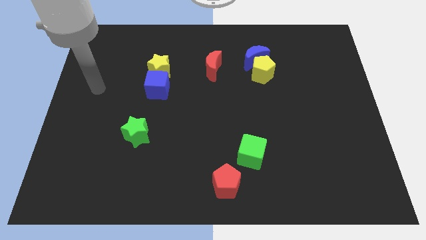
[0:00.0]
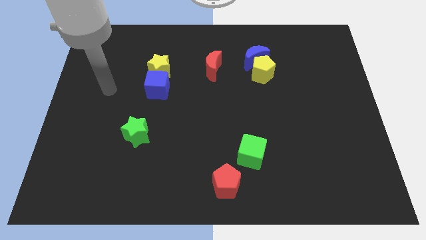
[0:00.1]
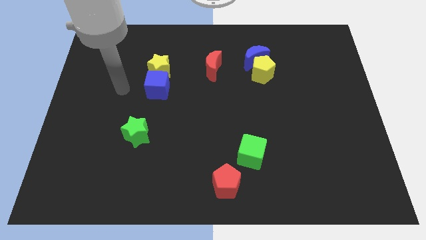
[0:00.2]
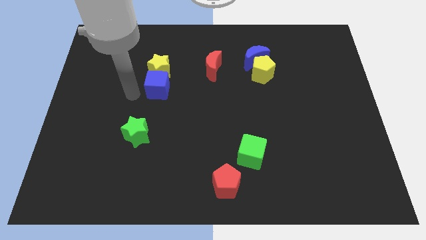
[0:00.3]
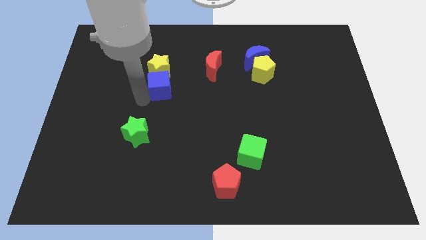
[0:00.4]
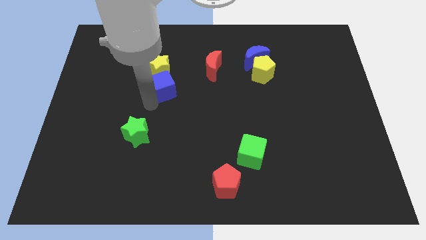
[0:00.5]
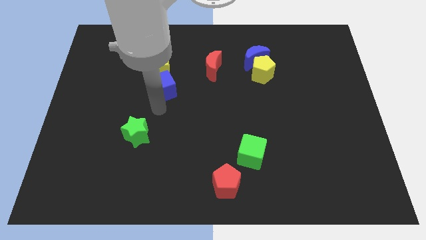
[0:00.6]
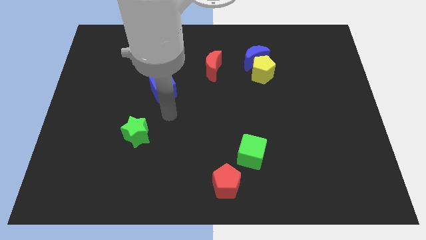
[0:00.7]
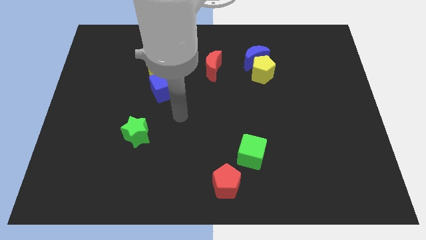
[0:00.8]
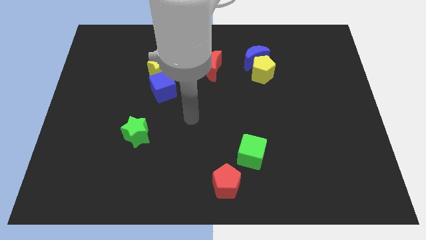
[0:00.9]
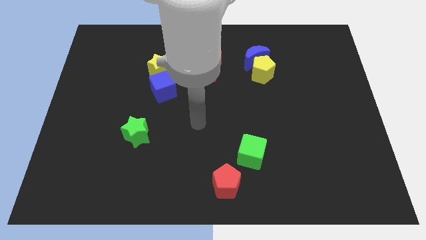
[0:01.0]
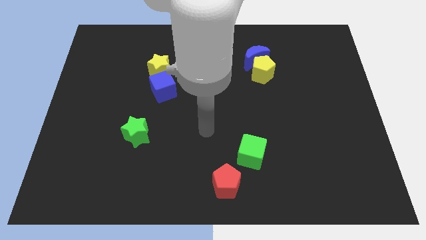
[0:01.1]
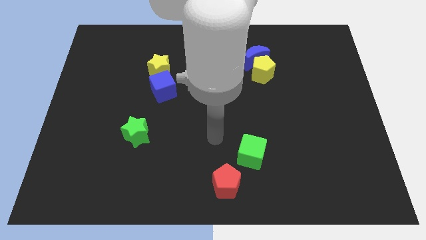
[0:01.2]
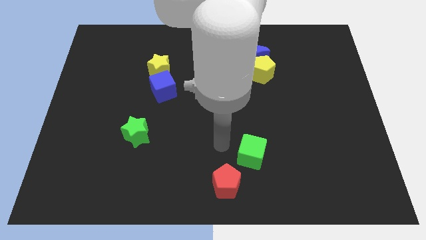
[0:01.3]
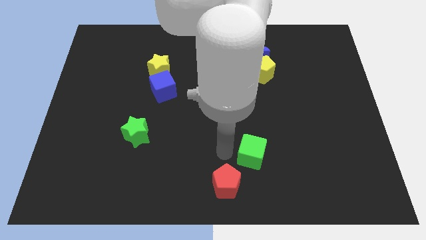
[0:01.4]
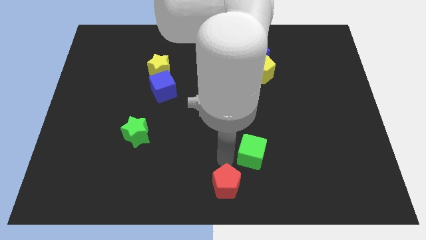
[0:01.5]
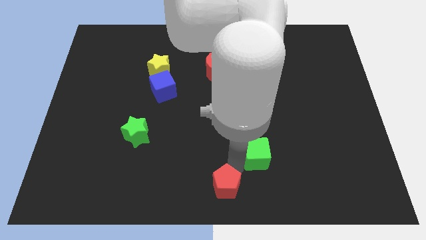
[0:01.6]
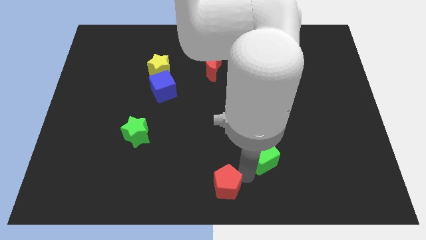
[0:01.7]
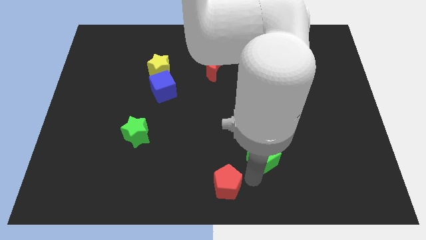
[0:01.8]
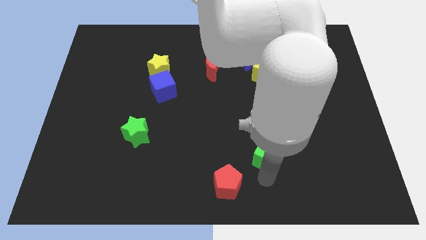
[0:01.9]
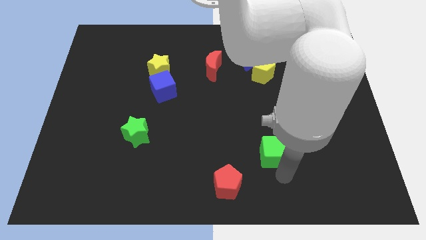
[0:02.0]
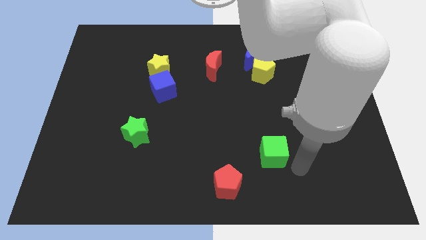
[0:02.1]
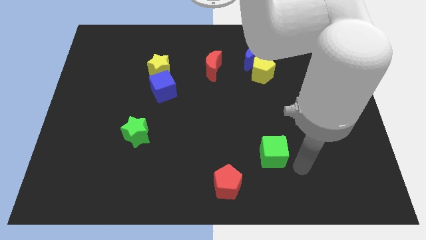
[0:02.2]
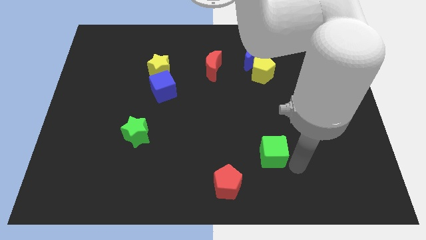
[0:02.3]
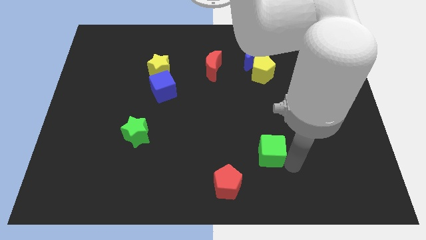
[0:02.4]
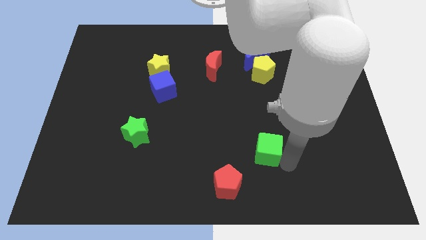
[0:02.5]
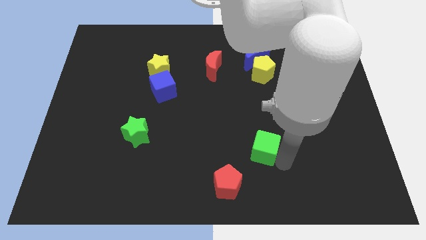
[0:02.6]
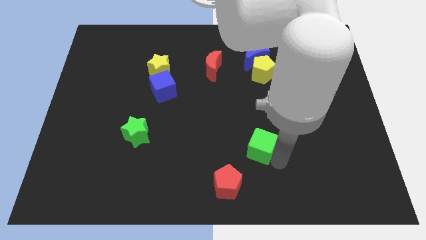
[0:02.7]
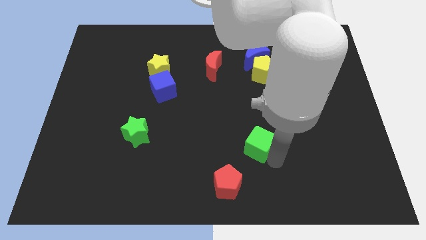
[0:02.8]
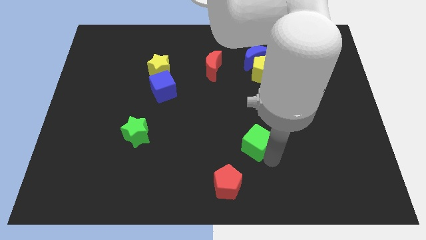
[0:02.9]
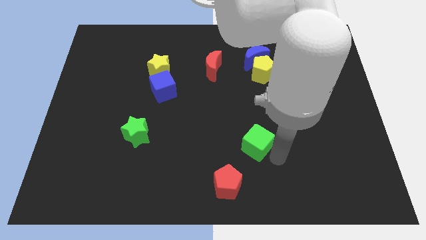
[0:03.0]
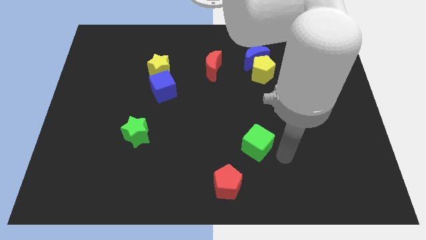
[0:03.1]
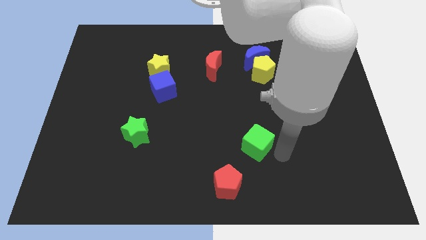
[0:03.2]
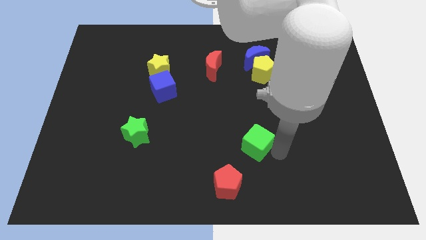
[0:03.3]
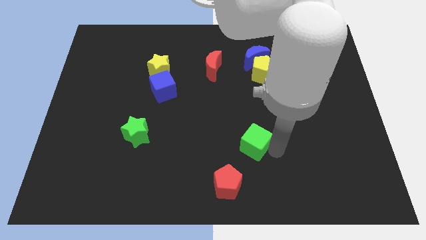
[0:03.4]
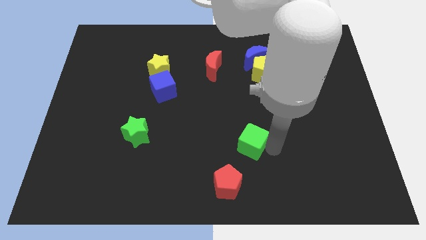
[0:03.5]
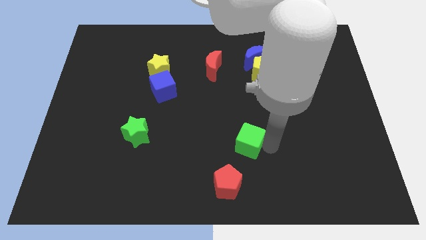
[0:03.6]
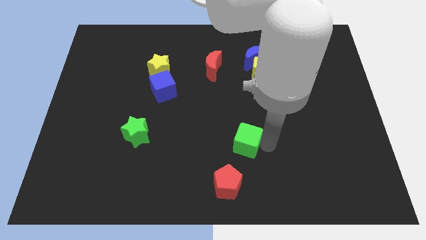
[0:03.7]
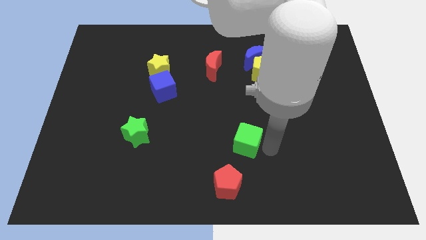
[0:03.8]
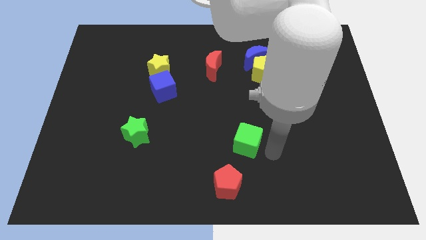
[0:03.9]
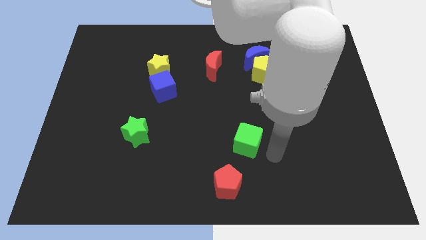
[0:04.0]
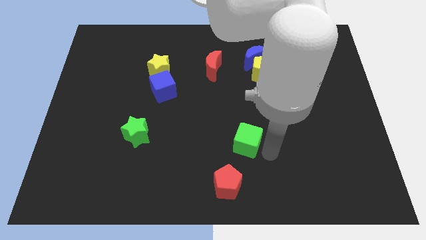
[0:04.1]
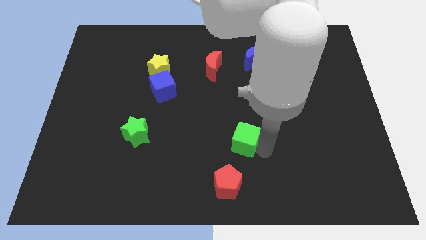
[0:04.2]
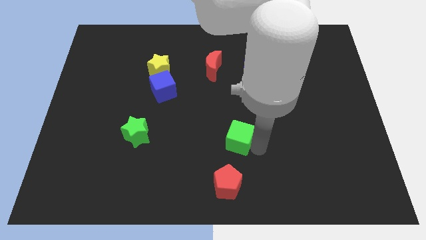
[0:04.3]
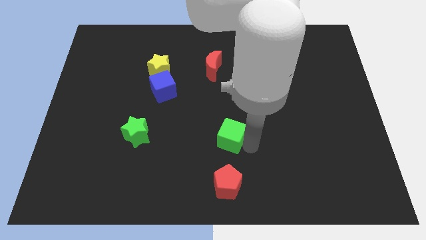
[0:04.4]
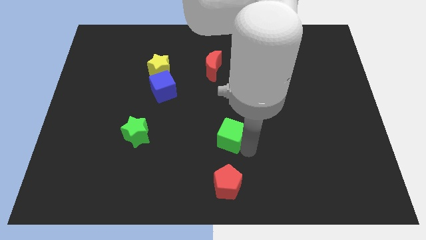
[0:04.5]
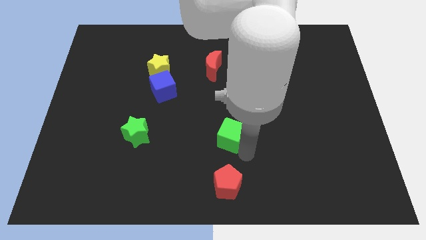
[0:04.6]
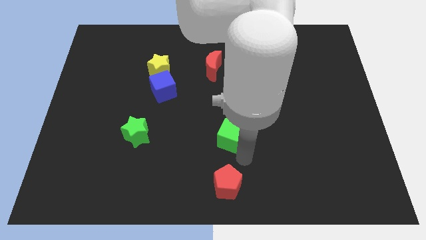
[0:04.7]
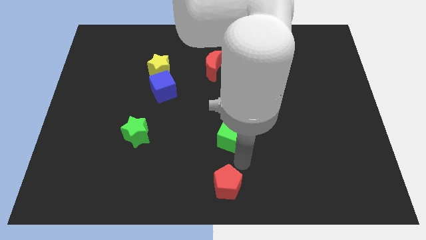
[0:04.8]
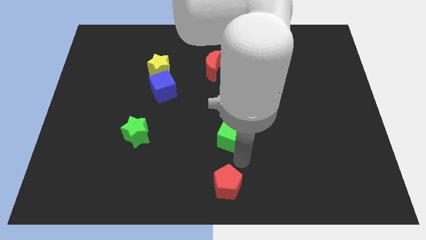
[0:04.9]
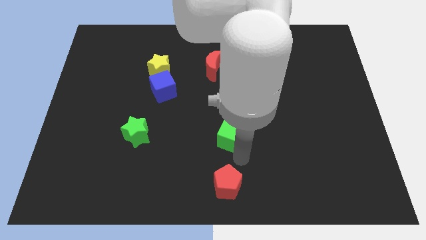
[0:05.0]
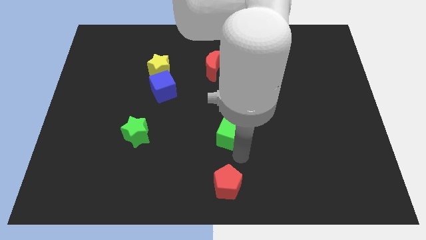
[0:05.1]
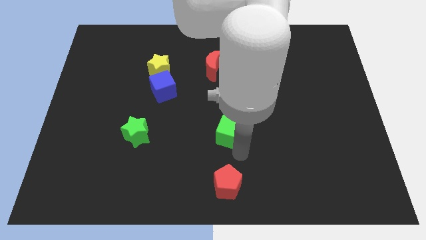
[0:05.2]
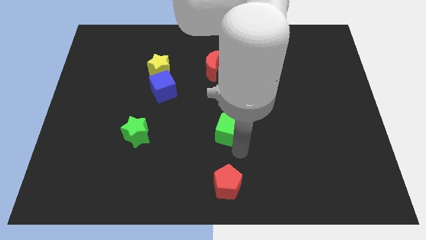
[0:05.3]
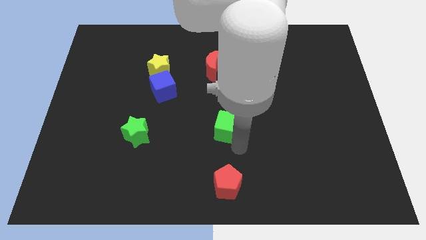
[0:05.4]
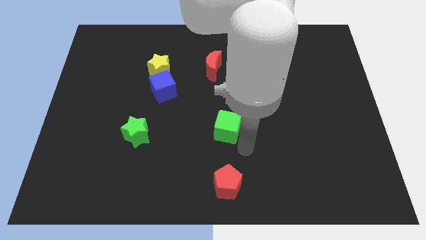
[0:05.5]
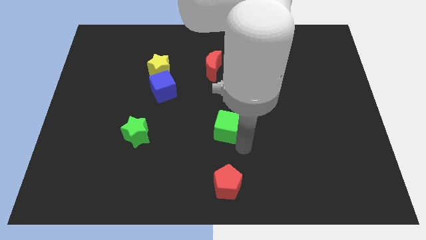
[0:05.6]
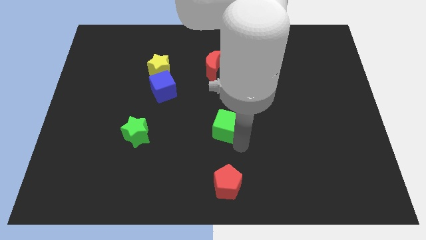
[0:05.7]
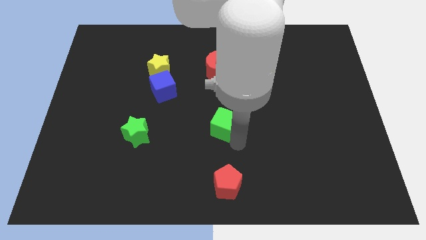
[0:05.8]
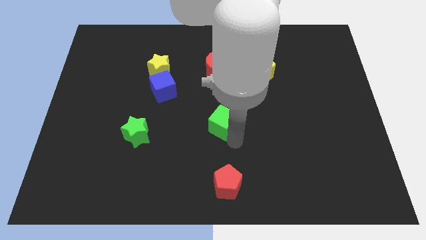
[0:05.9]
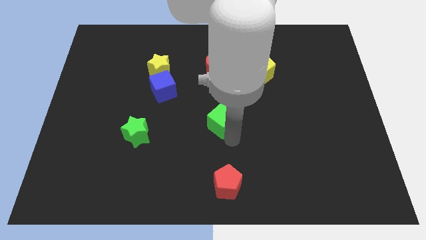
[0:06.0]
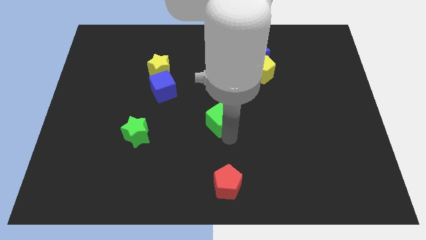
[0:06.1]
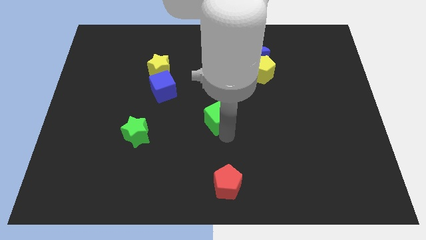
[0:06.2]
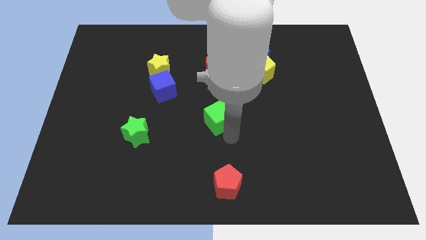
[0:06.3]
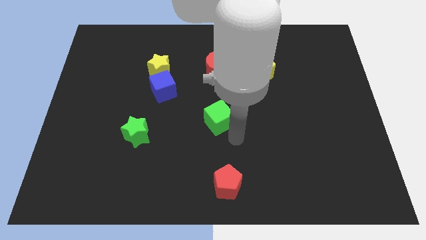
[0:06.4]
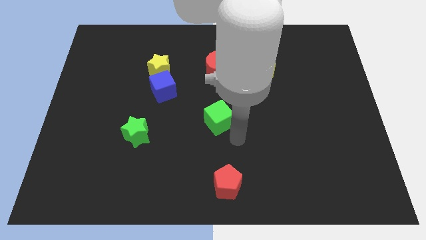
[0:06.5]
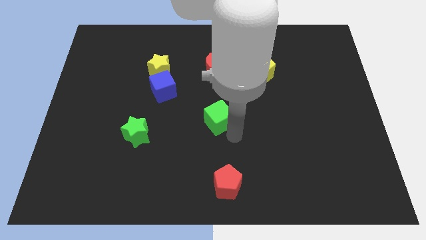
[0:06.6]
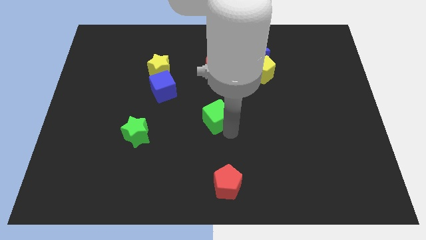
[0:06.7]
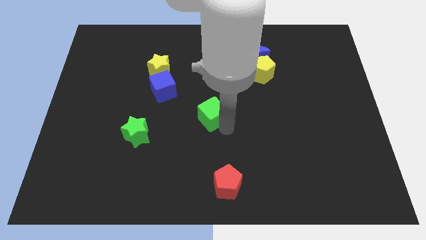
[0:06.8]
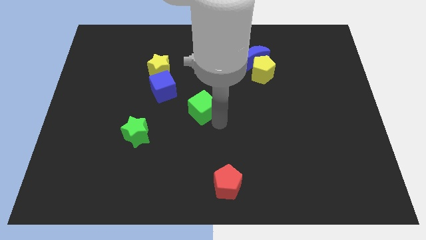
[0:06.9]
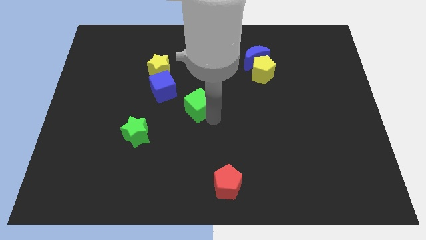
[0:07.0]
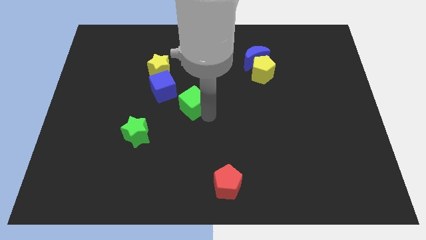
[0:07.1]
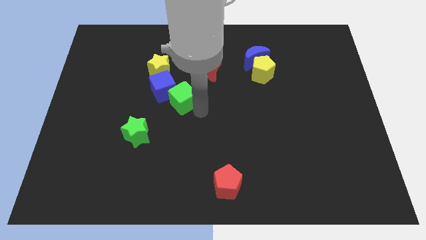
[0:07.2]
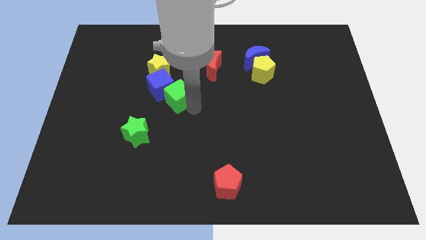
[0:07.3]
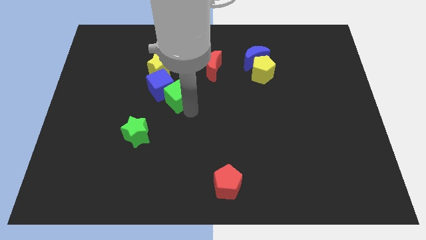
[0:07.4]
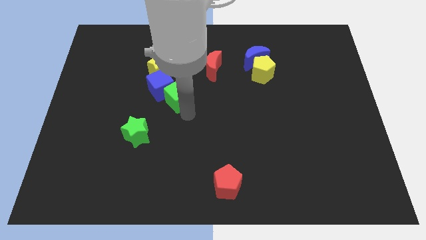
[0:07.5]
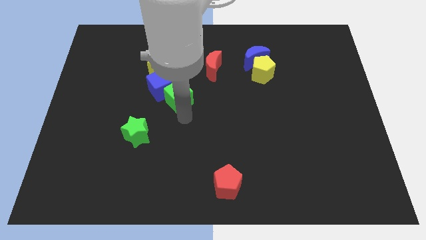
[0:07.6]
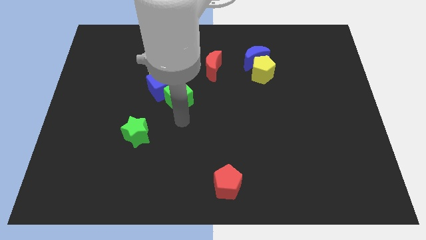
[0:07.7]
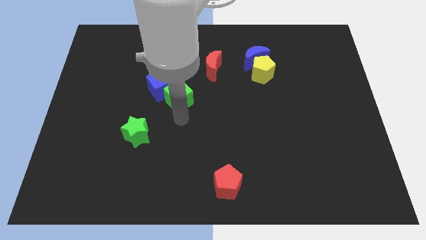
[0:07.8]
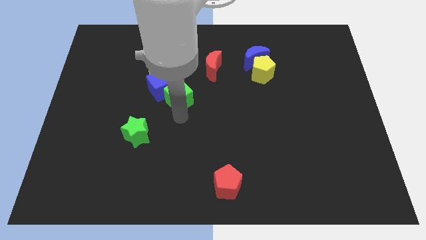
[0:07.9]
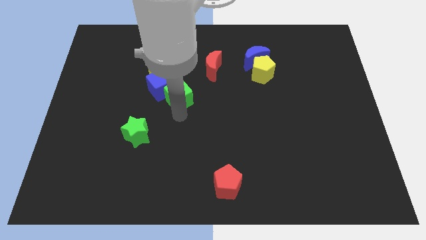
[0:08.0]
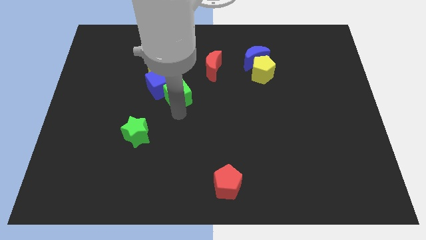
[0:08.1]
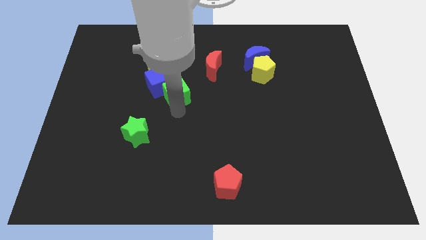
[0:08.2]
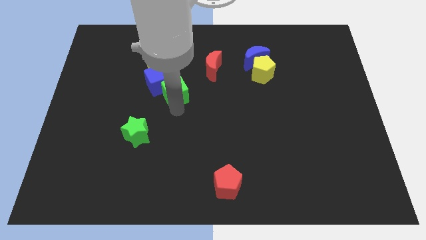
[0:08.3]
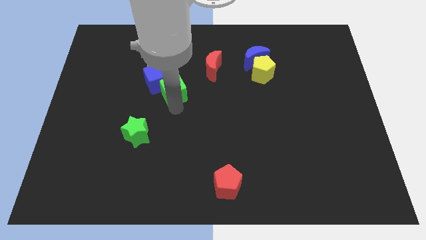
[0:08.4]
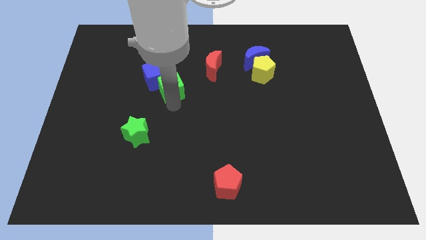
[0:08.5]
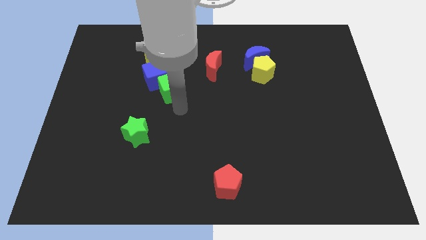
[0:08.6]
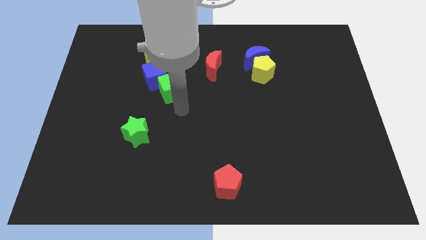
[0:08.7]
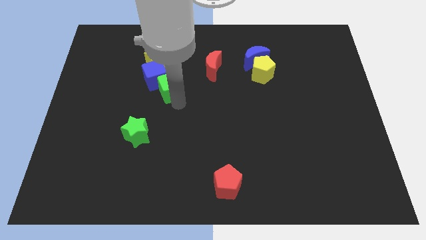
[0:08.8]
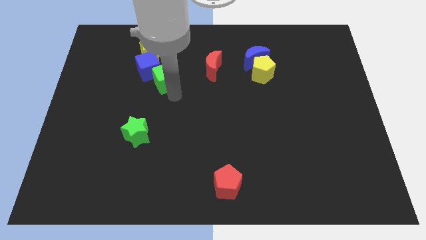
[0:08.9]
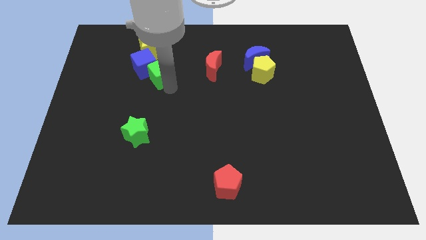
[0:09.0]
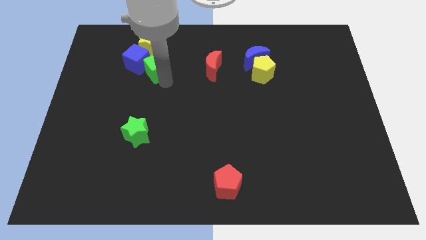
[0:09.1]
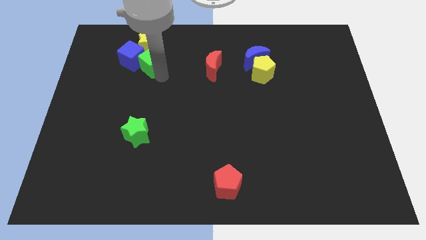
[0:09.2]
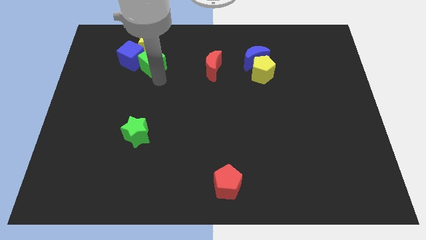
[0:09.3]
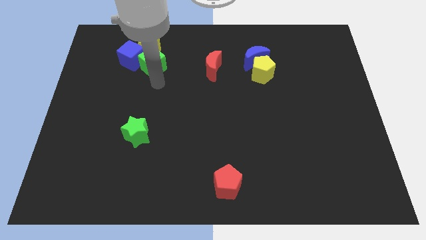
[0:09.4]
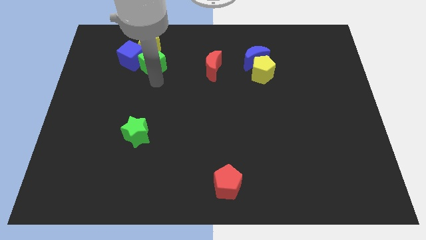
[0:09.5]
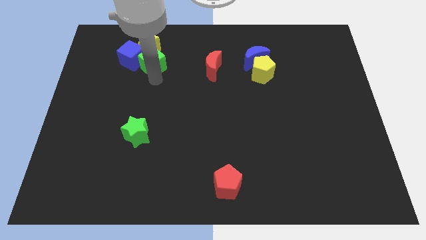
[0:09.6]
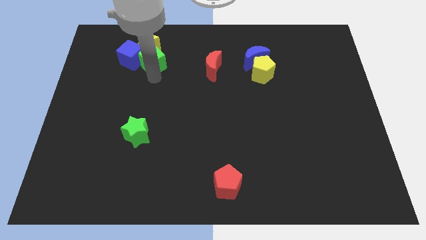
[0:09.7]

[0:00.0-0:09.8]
put the green cube close to the yellow star
